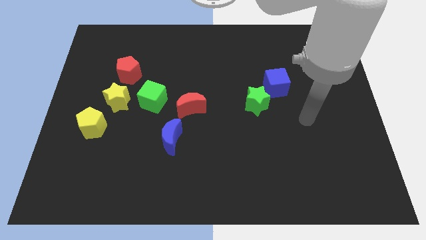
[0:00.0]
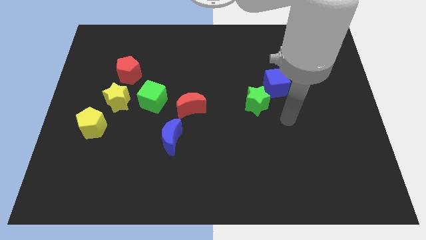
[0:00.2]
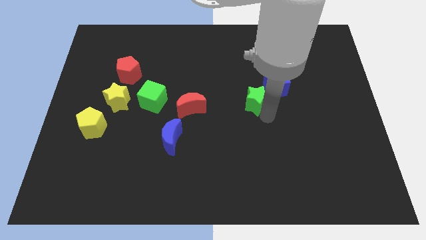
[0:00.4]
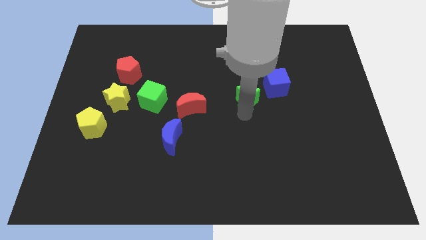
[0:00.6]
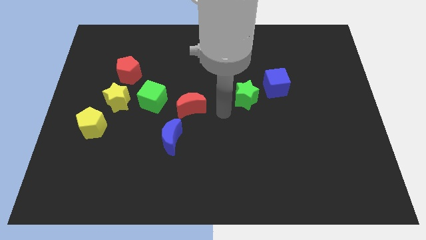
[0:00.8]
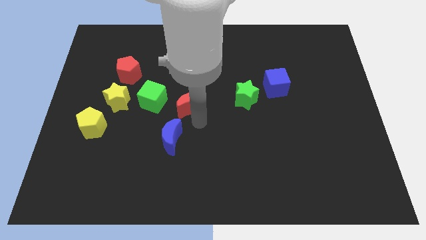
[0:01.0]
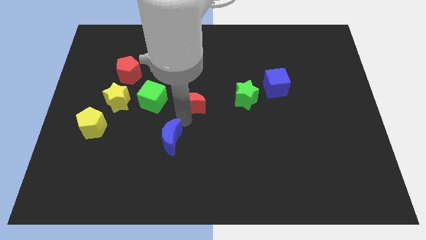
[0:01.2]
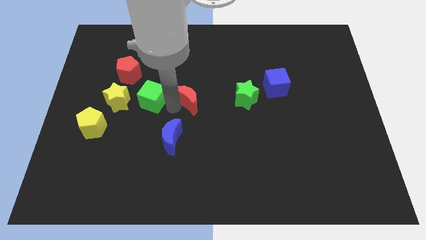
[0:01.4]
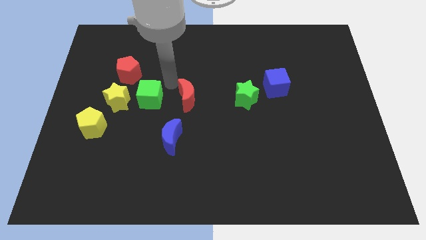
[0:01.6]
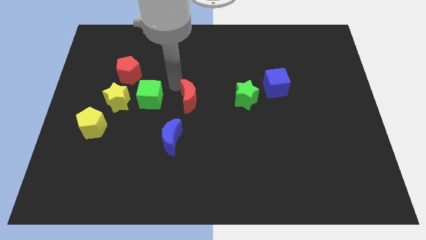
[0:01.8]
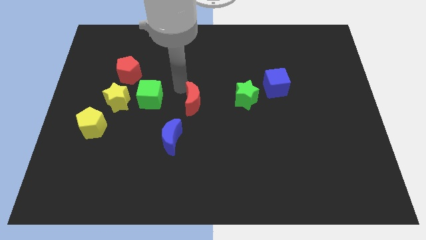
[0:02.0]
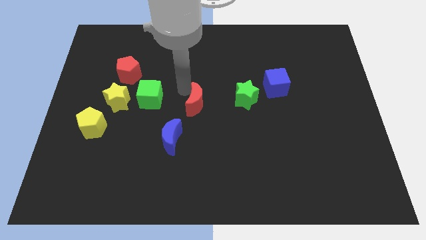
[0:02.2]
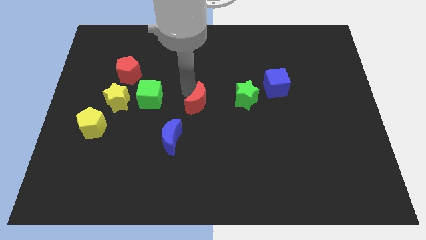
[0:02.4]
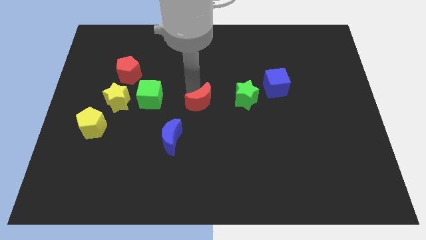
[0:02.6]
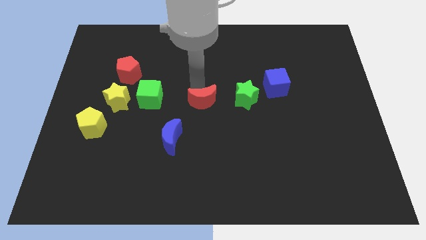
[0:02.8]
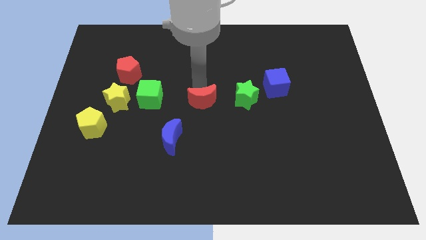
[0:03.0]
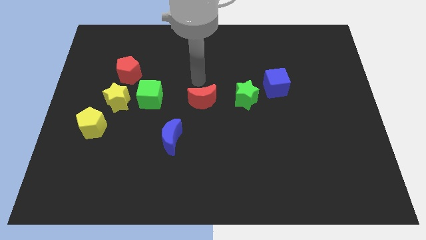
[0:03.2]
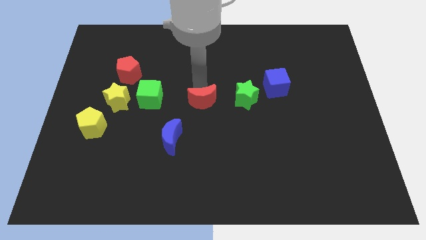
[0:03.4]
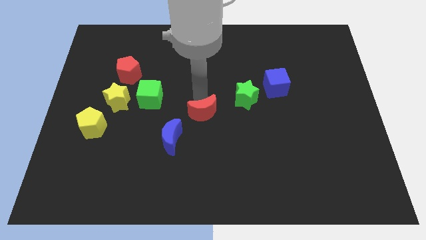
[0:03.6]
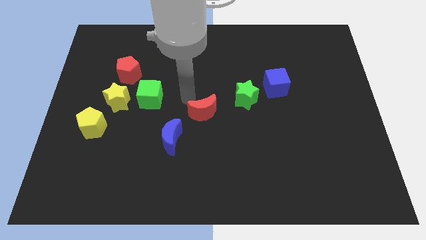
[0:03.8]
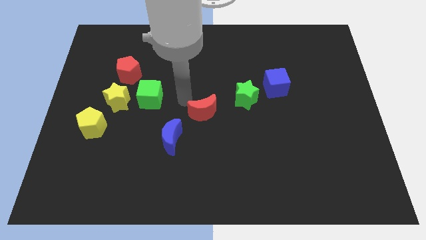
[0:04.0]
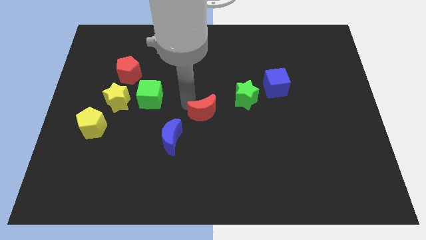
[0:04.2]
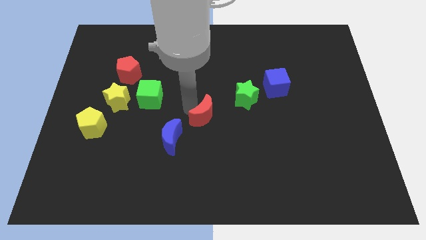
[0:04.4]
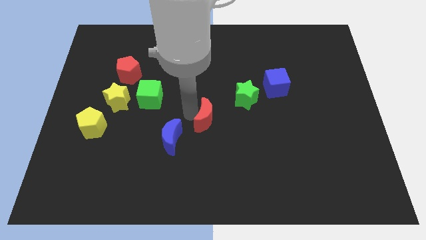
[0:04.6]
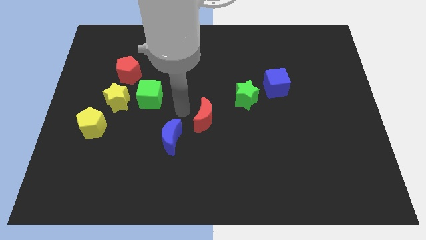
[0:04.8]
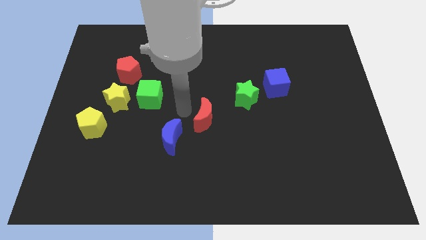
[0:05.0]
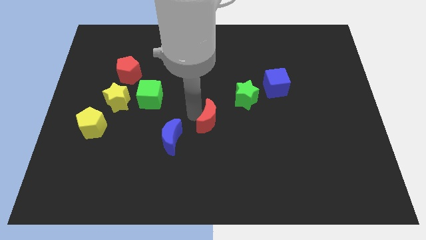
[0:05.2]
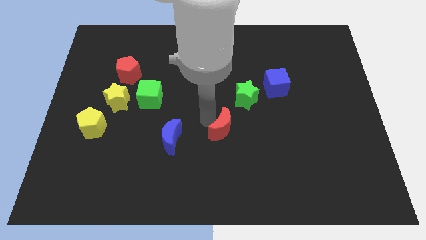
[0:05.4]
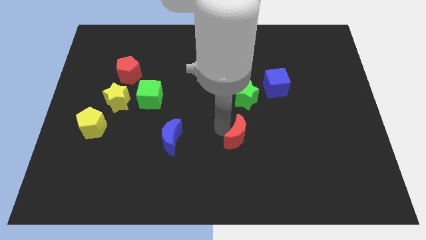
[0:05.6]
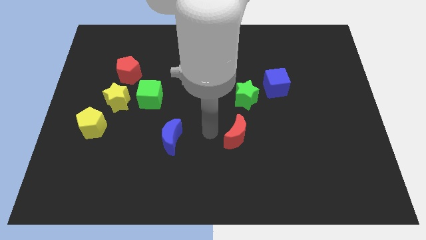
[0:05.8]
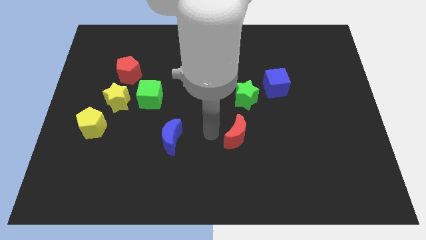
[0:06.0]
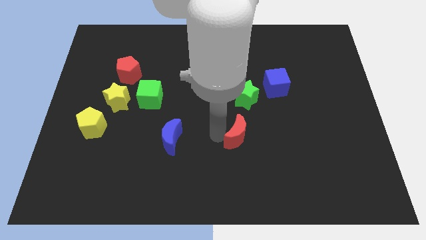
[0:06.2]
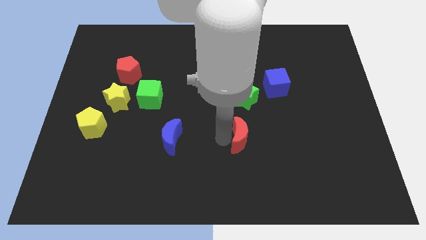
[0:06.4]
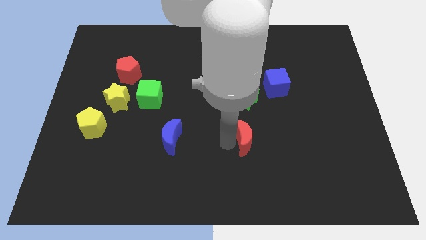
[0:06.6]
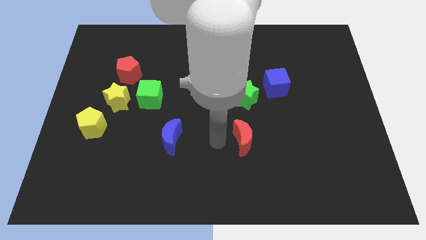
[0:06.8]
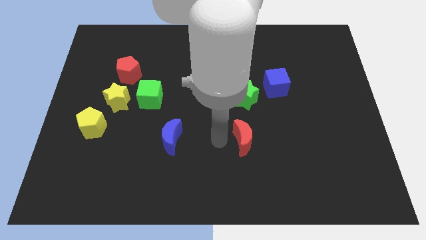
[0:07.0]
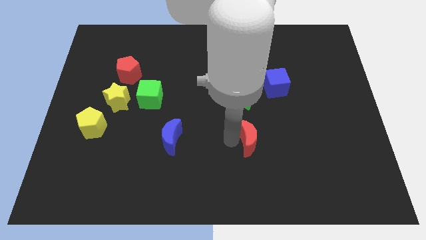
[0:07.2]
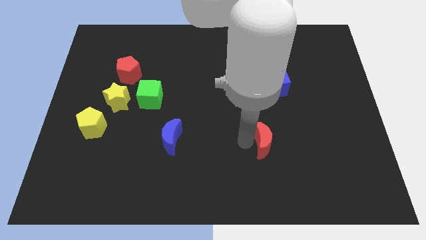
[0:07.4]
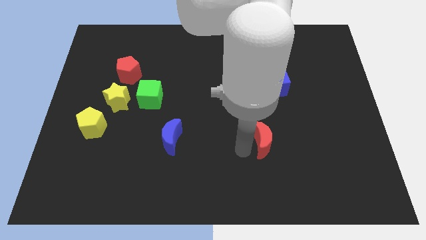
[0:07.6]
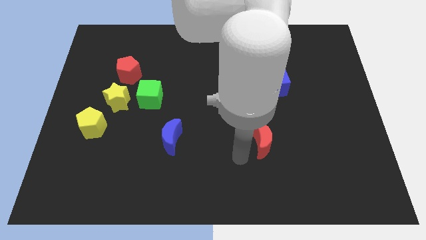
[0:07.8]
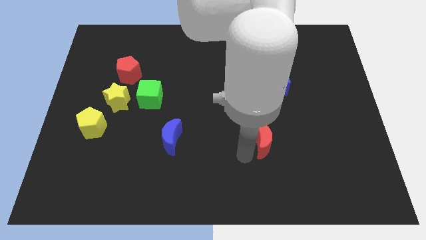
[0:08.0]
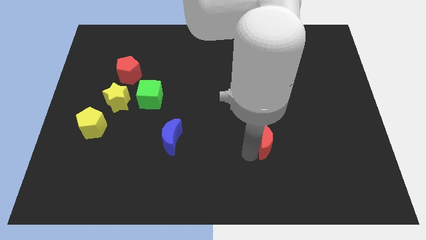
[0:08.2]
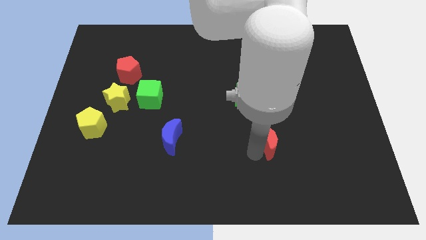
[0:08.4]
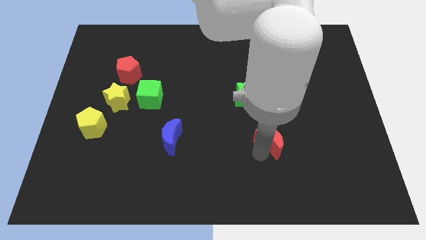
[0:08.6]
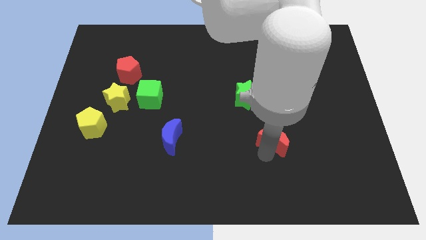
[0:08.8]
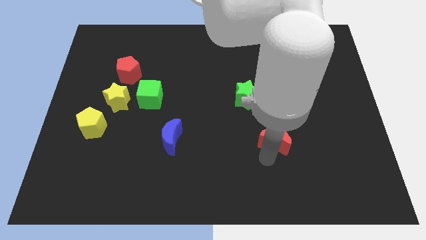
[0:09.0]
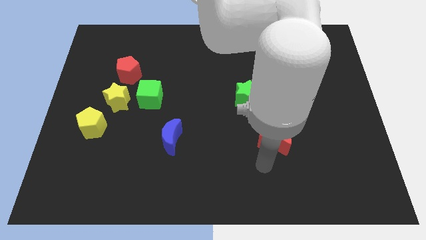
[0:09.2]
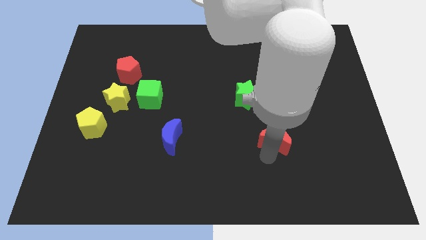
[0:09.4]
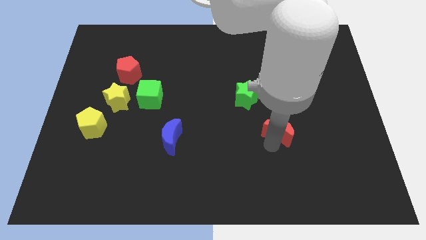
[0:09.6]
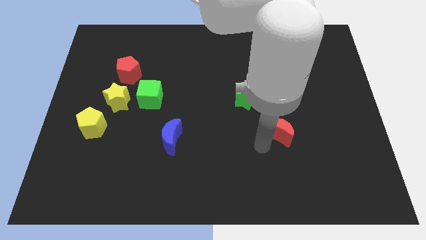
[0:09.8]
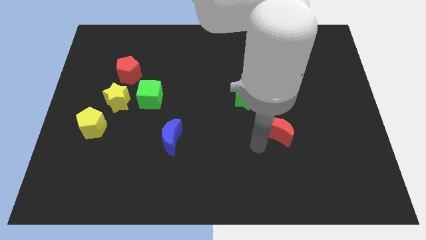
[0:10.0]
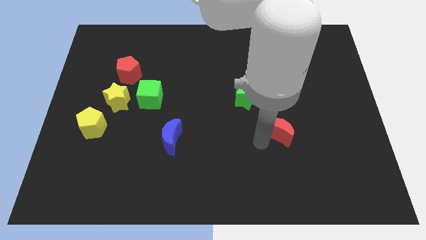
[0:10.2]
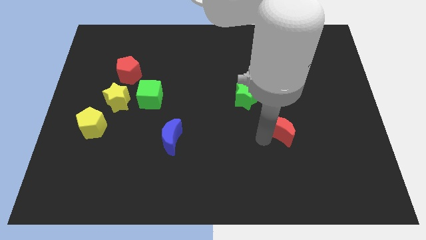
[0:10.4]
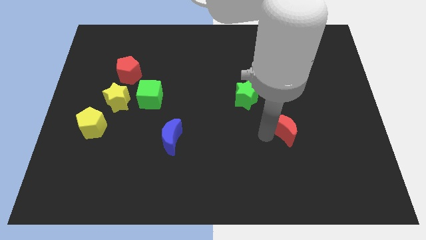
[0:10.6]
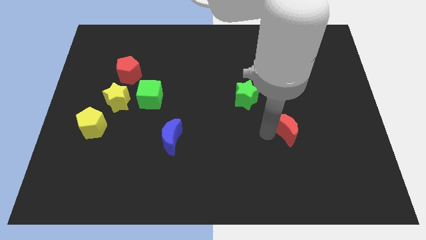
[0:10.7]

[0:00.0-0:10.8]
move the red moon right

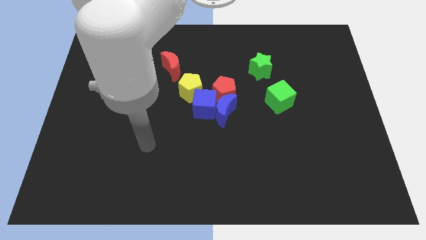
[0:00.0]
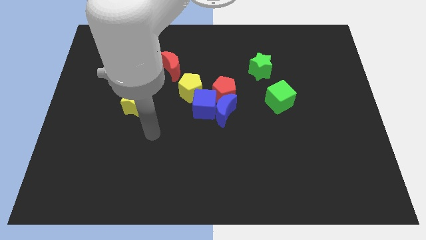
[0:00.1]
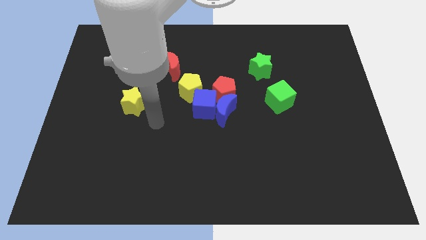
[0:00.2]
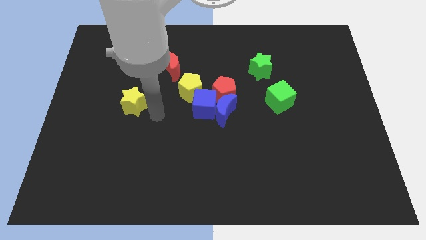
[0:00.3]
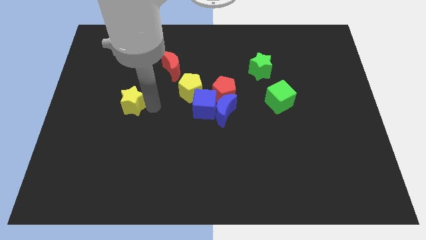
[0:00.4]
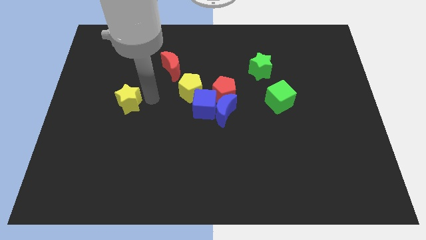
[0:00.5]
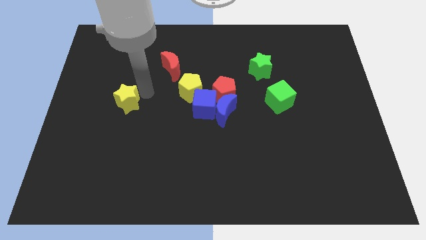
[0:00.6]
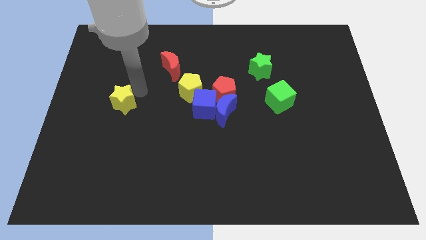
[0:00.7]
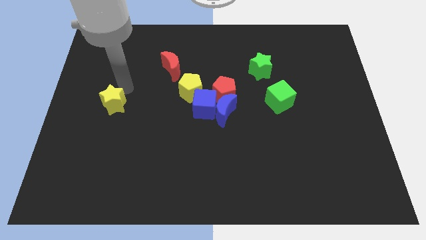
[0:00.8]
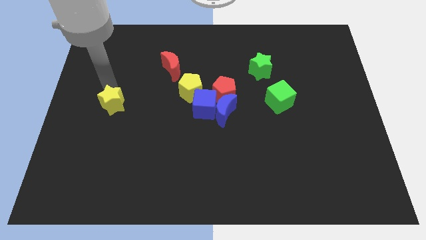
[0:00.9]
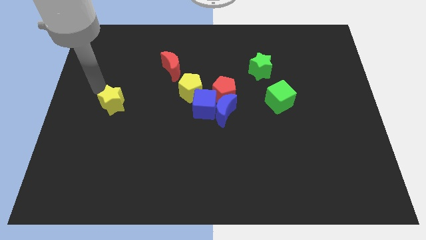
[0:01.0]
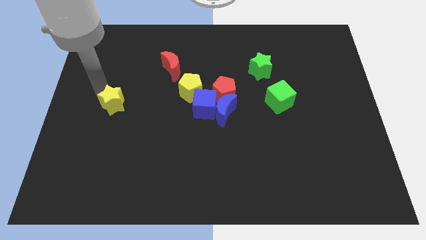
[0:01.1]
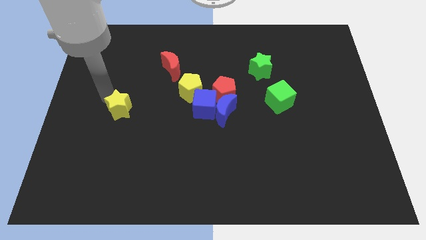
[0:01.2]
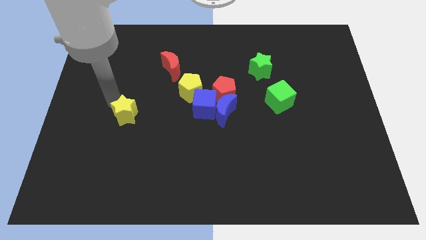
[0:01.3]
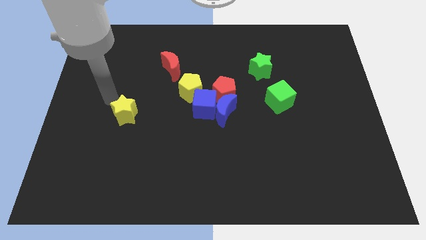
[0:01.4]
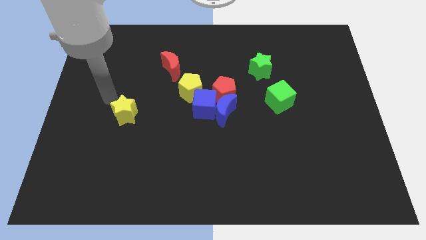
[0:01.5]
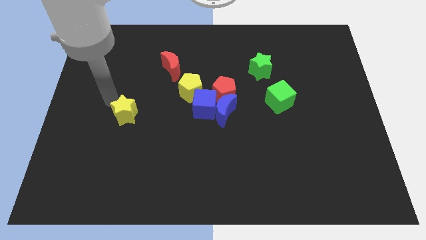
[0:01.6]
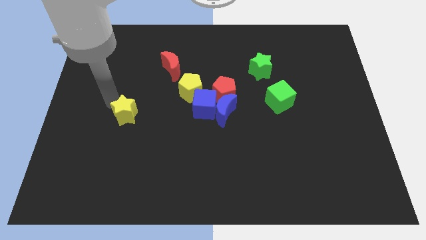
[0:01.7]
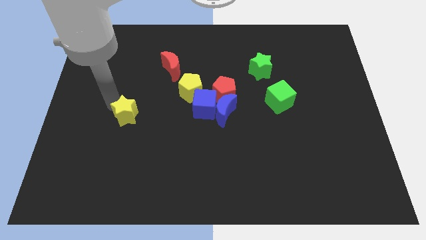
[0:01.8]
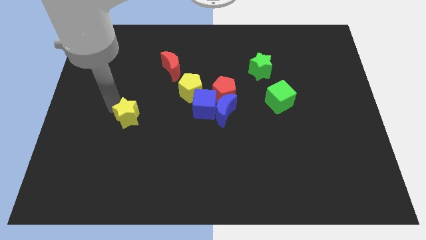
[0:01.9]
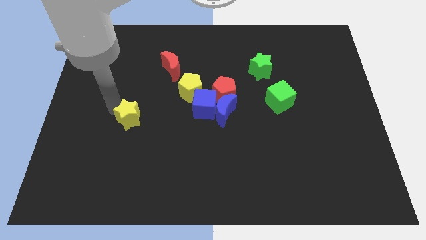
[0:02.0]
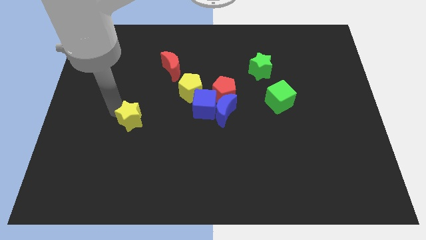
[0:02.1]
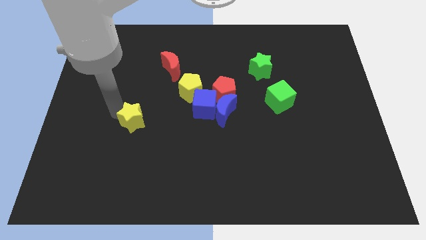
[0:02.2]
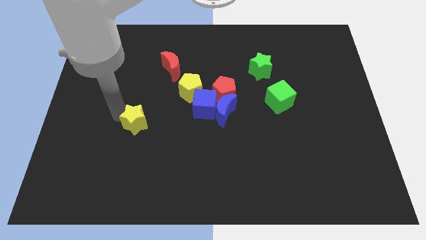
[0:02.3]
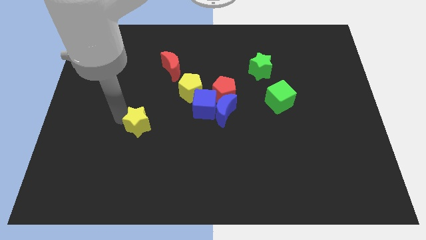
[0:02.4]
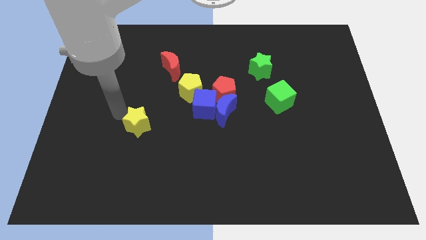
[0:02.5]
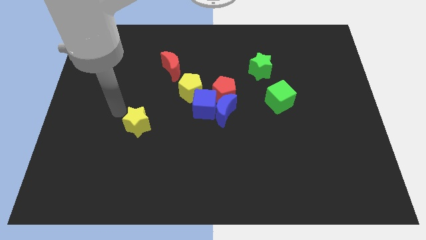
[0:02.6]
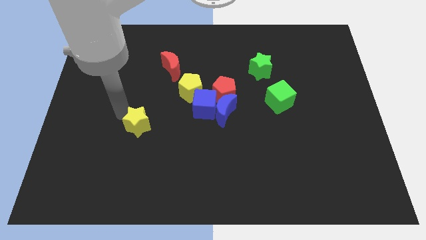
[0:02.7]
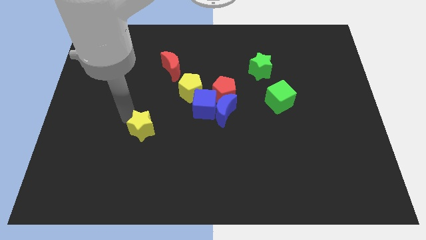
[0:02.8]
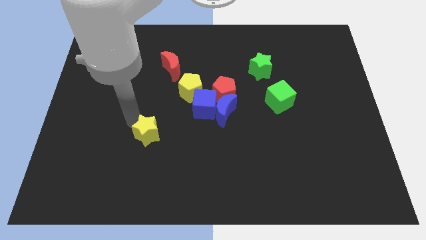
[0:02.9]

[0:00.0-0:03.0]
slightly slide the yellow star downwards and right diagonally
